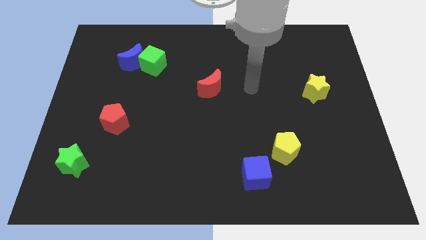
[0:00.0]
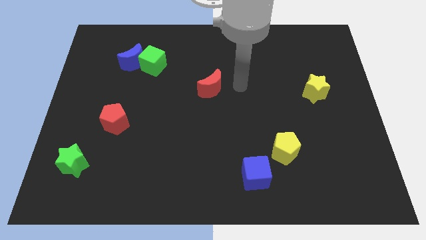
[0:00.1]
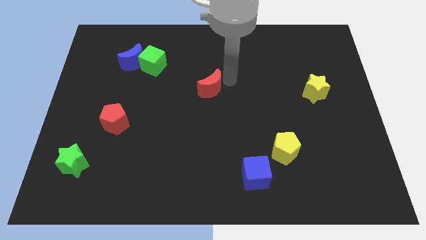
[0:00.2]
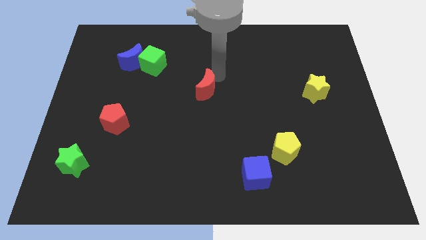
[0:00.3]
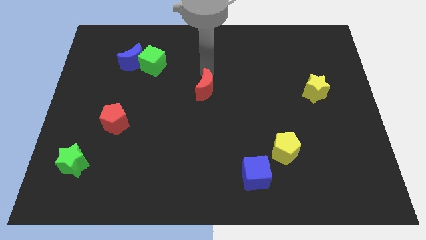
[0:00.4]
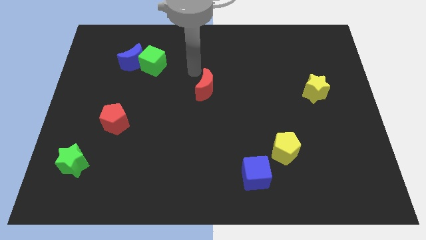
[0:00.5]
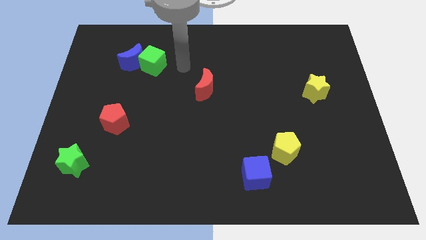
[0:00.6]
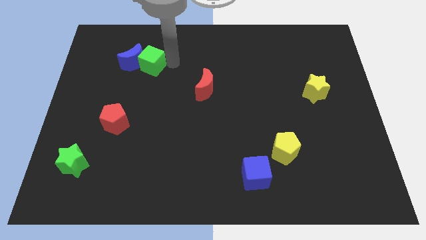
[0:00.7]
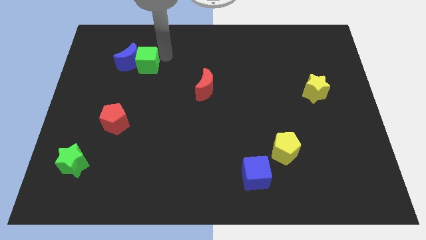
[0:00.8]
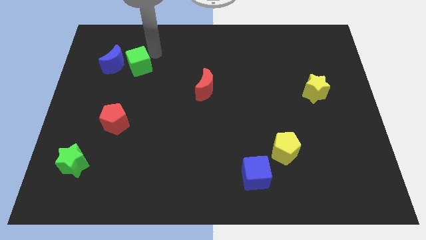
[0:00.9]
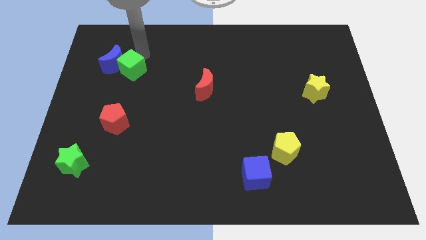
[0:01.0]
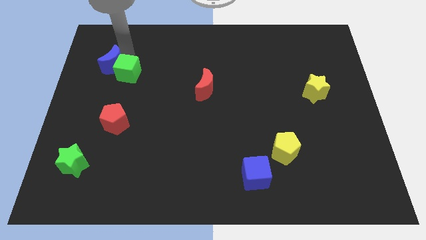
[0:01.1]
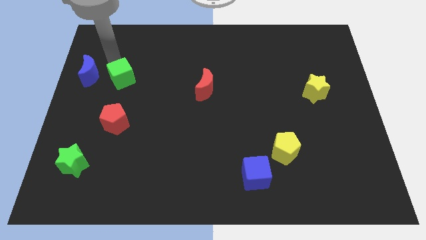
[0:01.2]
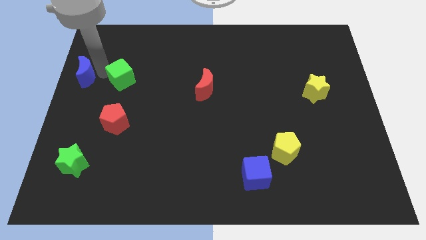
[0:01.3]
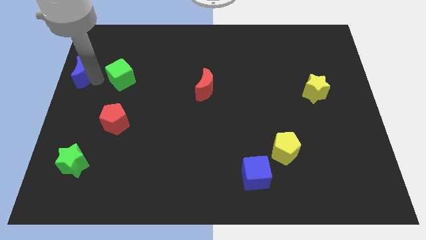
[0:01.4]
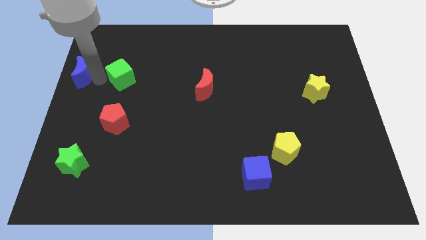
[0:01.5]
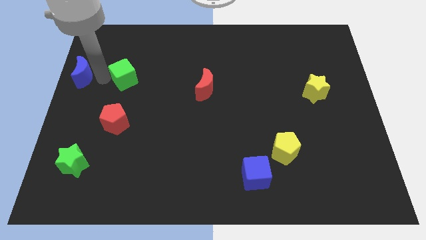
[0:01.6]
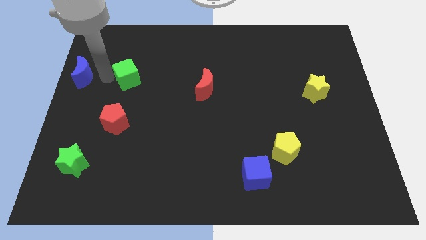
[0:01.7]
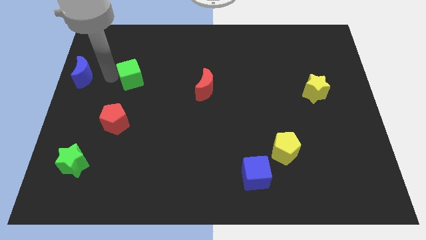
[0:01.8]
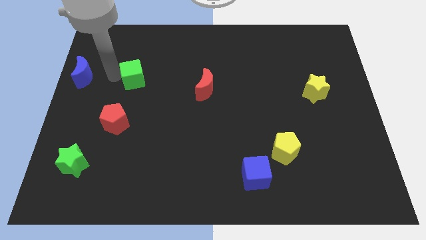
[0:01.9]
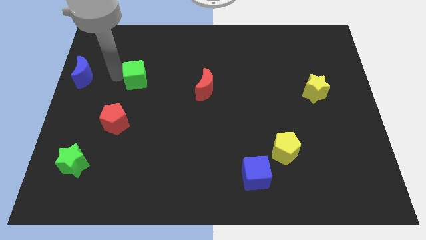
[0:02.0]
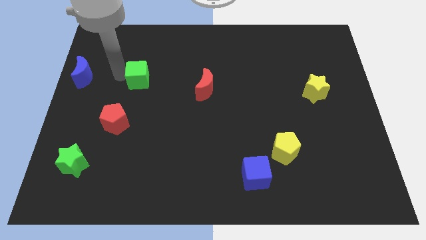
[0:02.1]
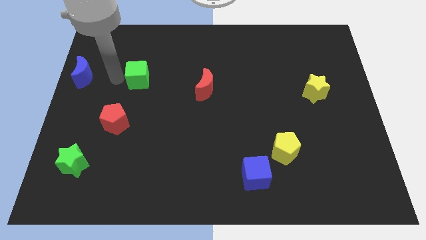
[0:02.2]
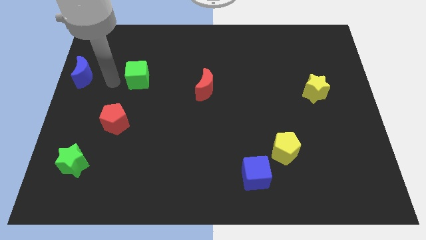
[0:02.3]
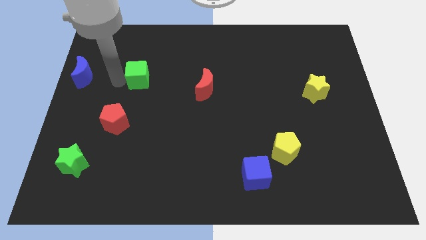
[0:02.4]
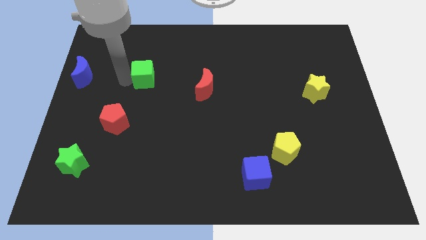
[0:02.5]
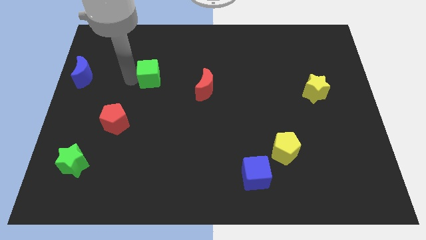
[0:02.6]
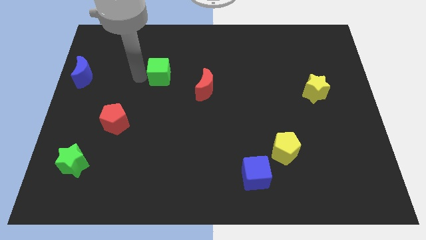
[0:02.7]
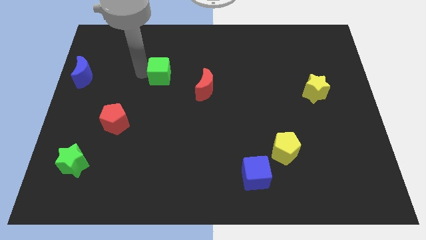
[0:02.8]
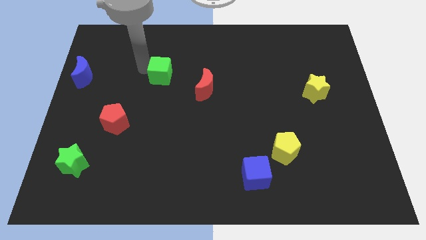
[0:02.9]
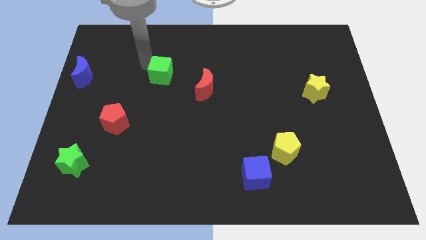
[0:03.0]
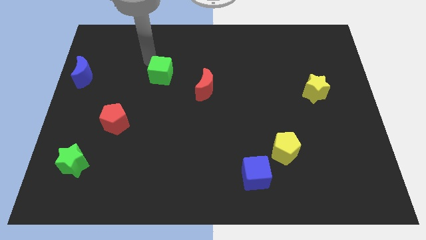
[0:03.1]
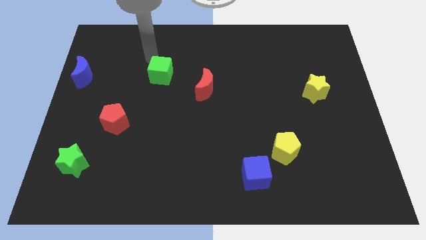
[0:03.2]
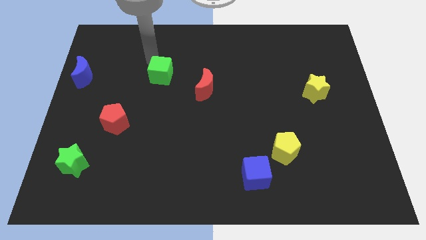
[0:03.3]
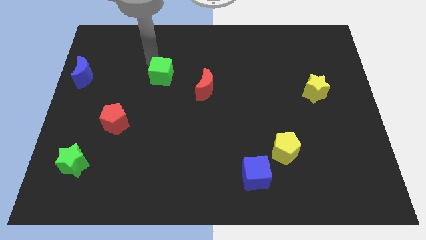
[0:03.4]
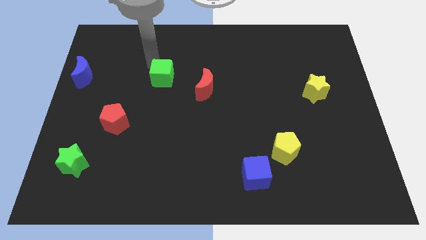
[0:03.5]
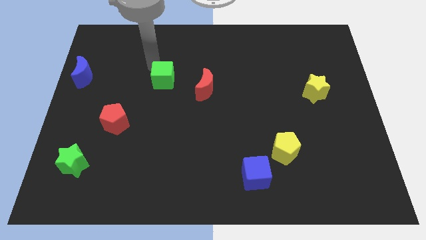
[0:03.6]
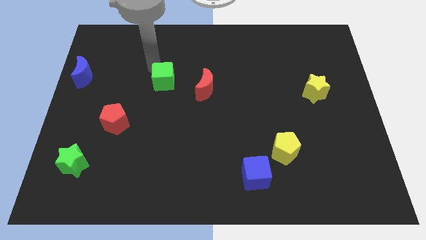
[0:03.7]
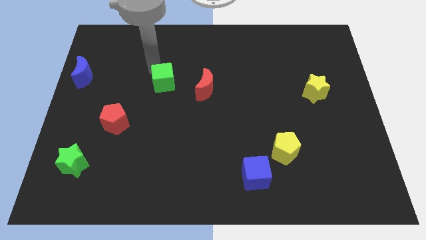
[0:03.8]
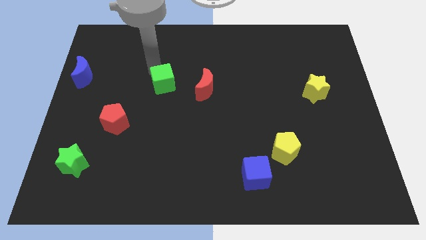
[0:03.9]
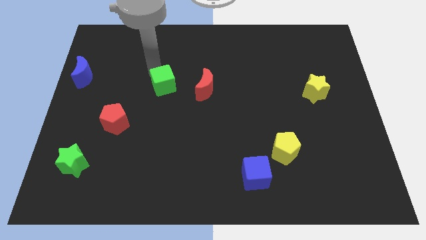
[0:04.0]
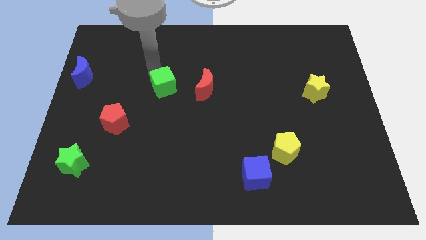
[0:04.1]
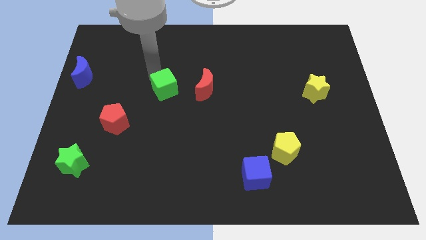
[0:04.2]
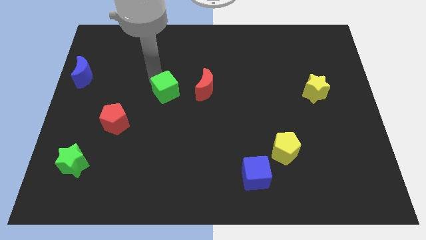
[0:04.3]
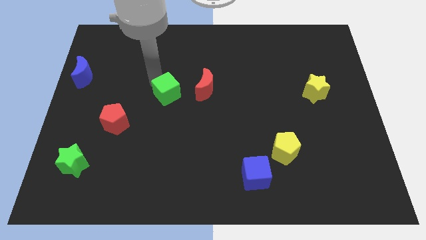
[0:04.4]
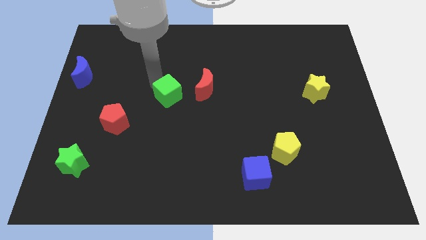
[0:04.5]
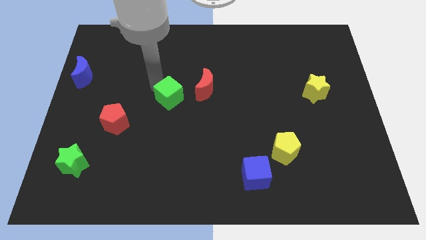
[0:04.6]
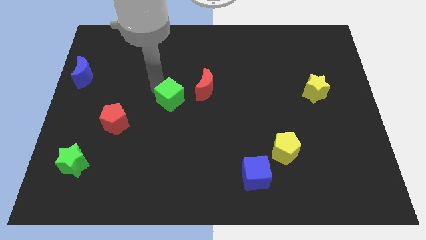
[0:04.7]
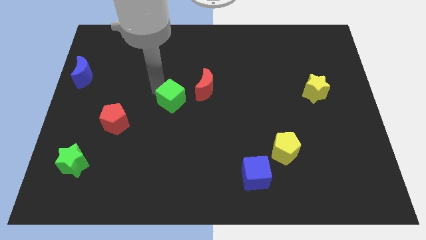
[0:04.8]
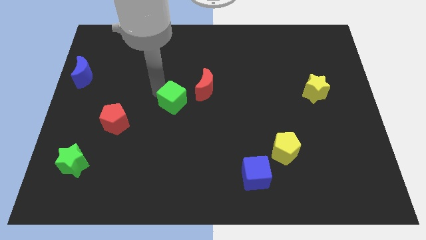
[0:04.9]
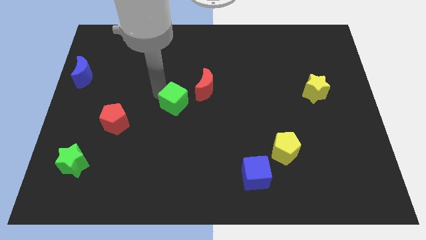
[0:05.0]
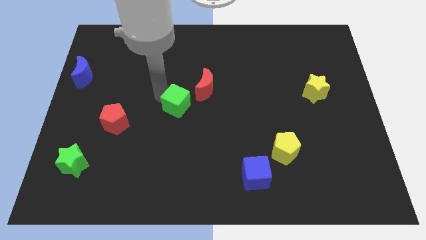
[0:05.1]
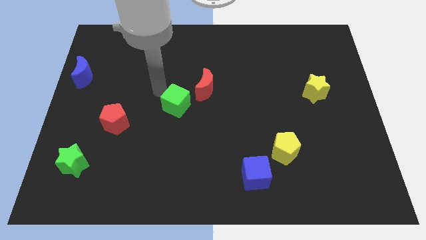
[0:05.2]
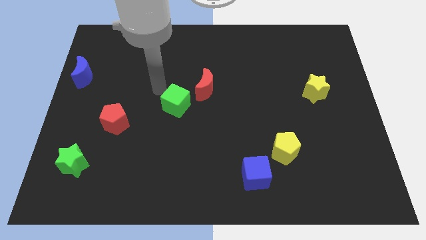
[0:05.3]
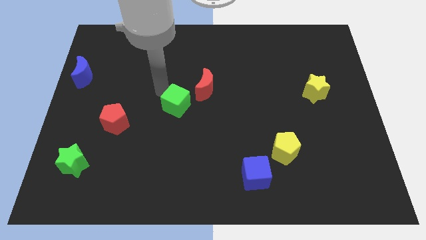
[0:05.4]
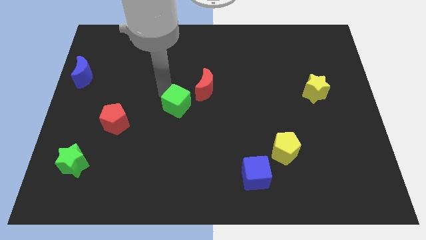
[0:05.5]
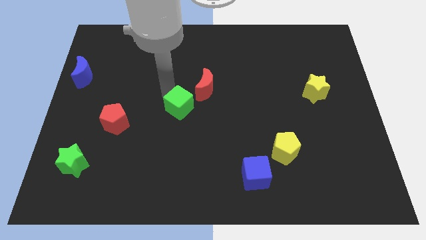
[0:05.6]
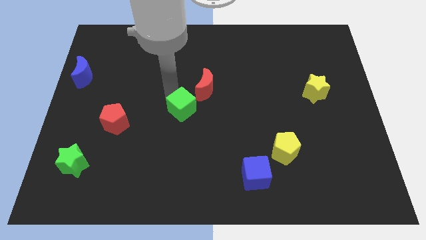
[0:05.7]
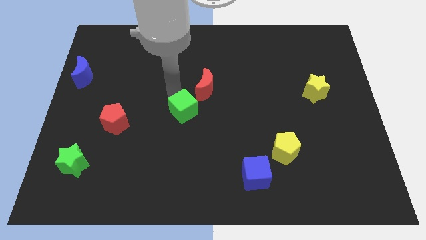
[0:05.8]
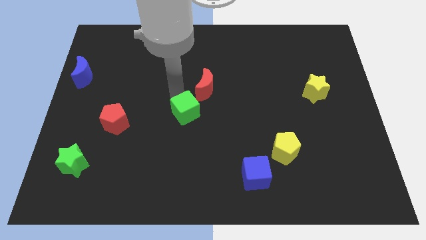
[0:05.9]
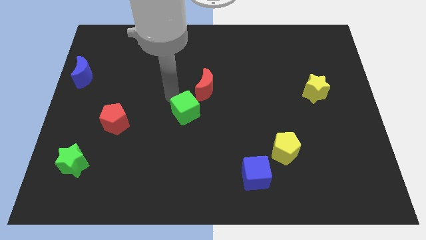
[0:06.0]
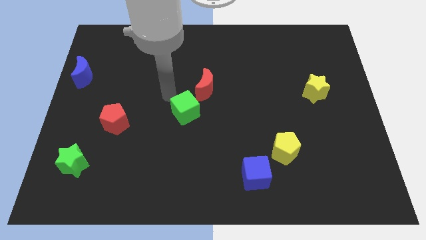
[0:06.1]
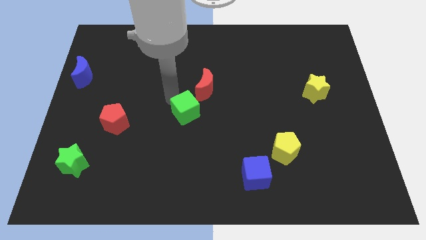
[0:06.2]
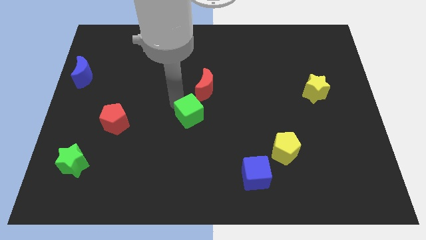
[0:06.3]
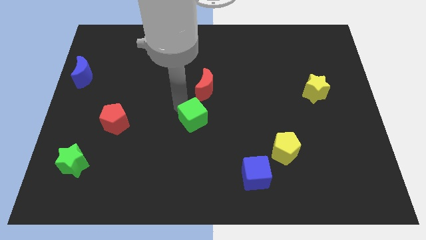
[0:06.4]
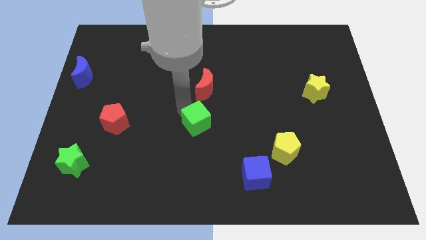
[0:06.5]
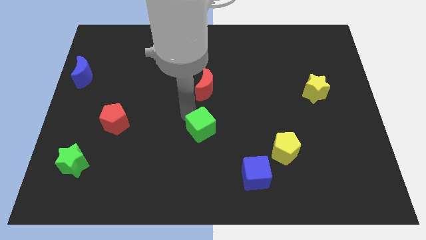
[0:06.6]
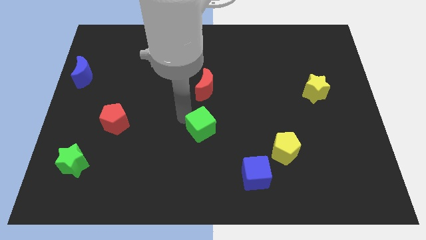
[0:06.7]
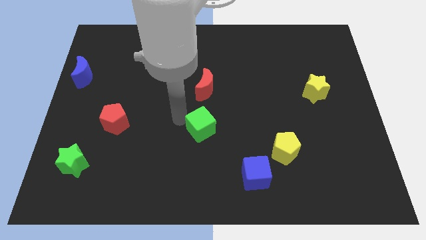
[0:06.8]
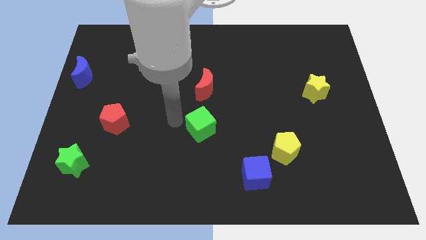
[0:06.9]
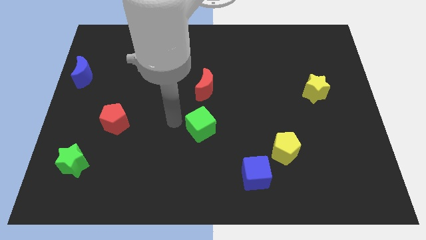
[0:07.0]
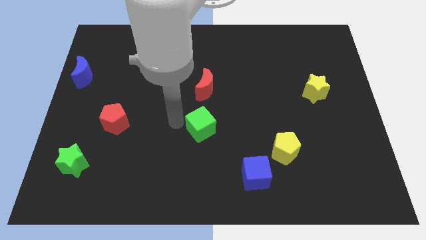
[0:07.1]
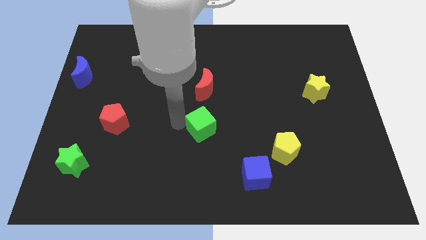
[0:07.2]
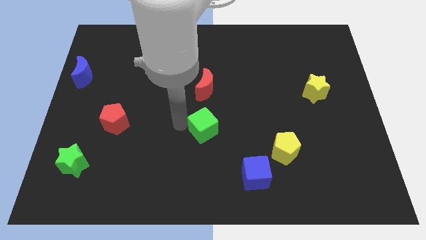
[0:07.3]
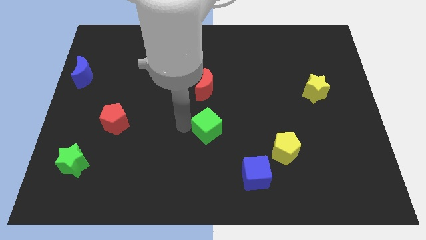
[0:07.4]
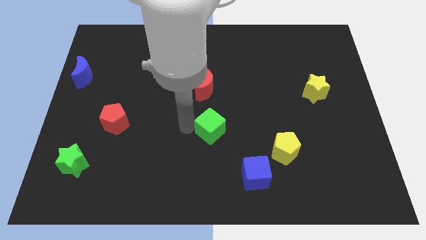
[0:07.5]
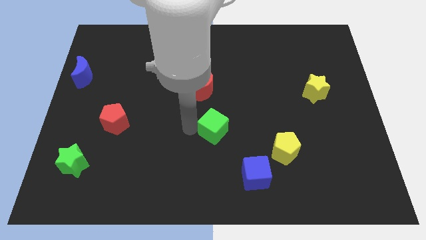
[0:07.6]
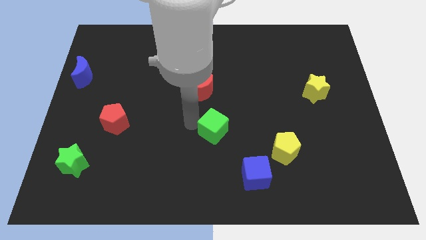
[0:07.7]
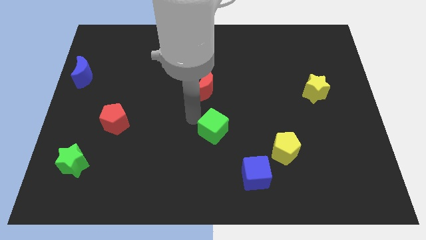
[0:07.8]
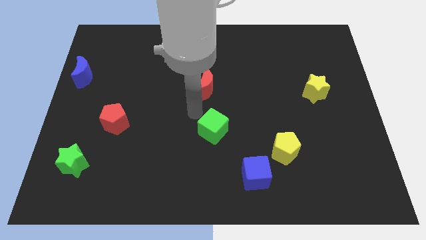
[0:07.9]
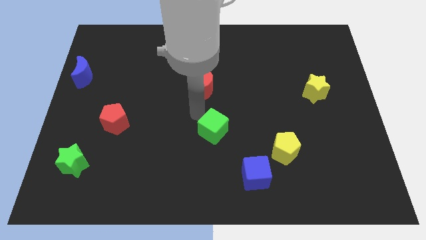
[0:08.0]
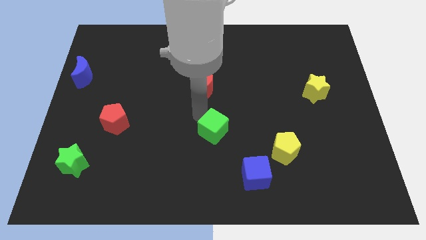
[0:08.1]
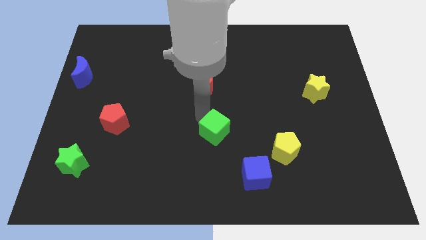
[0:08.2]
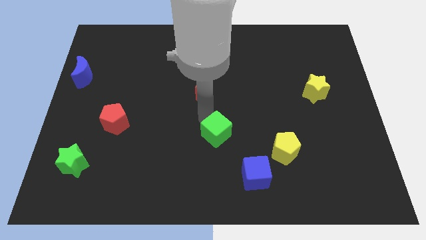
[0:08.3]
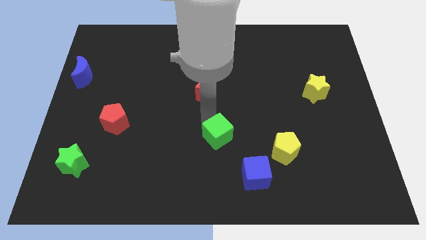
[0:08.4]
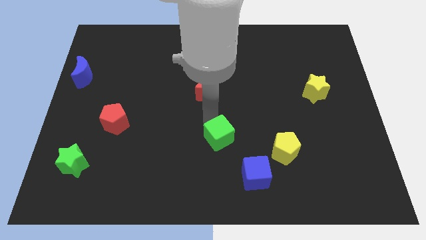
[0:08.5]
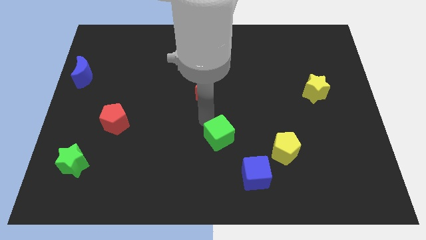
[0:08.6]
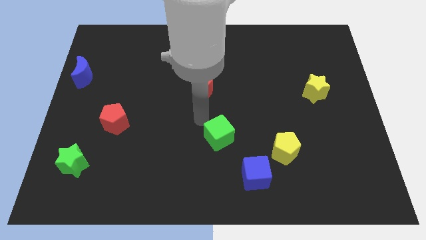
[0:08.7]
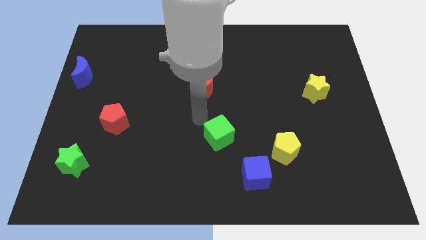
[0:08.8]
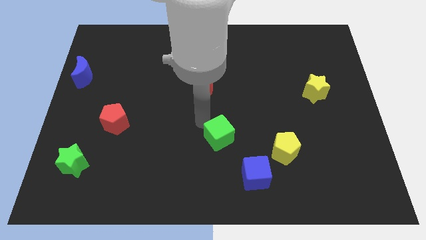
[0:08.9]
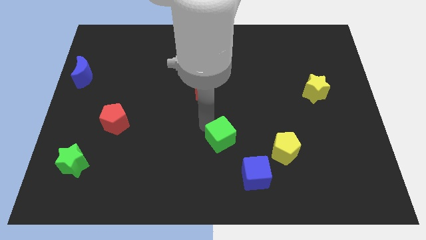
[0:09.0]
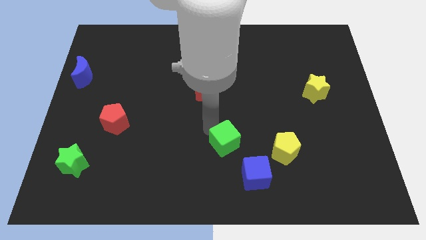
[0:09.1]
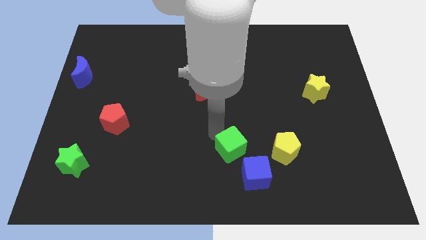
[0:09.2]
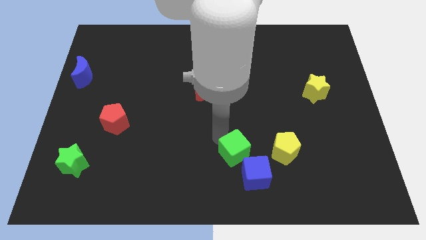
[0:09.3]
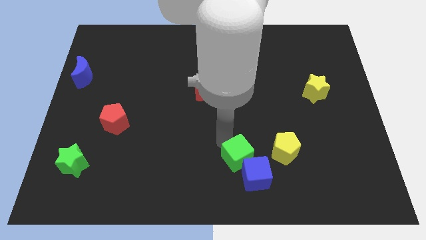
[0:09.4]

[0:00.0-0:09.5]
slide the green cube next to the blue cube
